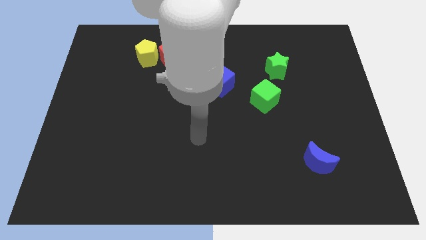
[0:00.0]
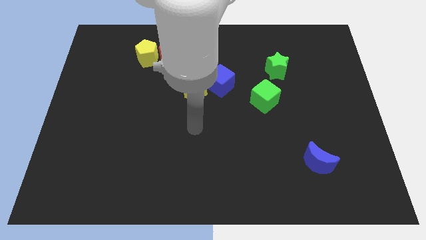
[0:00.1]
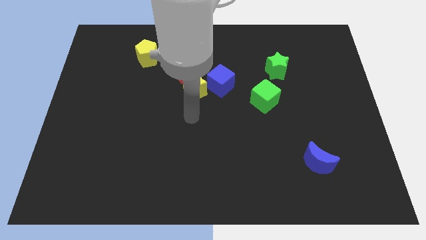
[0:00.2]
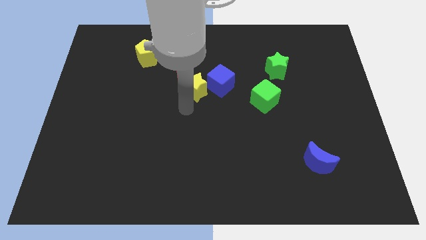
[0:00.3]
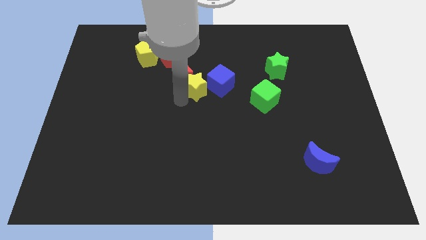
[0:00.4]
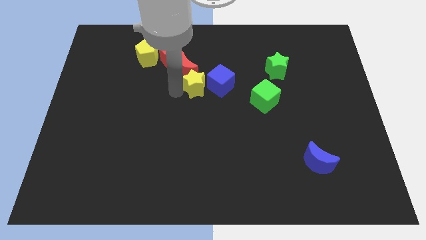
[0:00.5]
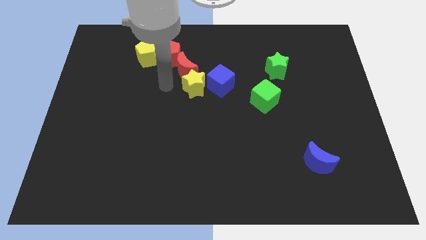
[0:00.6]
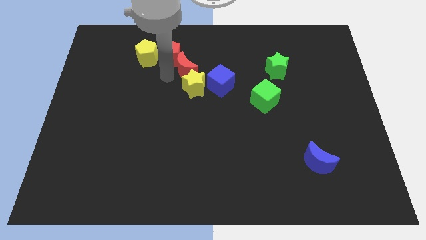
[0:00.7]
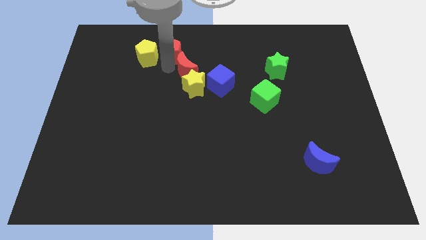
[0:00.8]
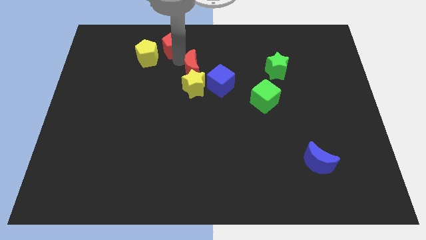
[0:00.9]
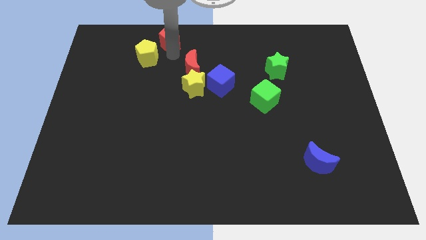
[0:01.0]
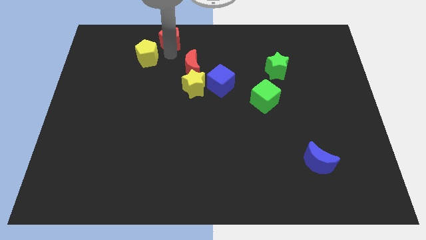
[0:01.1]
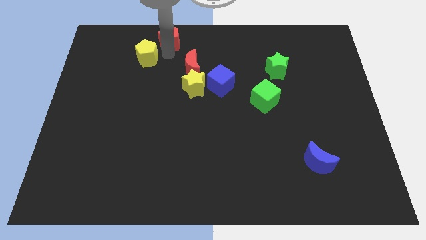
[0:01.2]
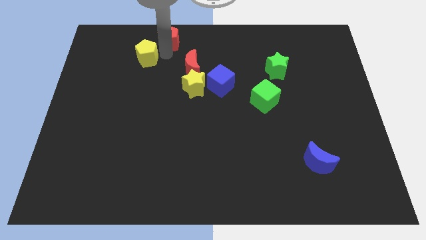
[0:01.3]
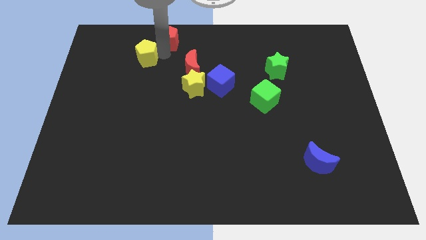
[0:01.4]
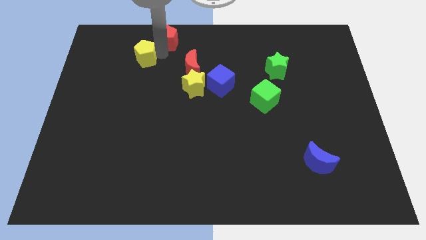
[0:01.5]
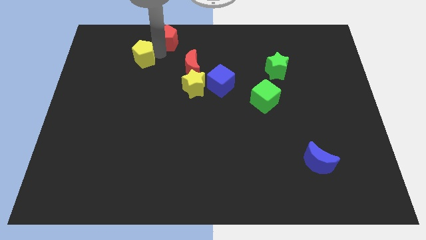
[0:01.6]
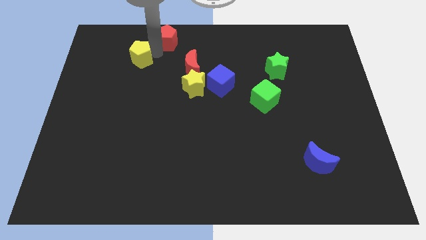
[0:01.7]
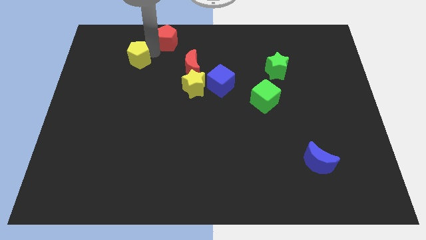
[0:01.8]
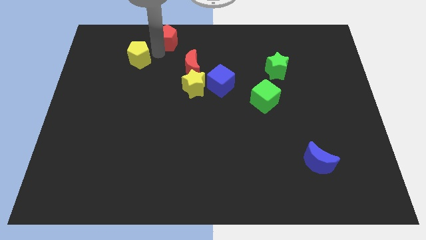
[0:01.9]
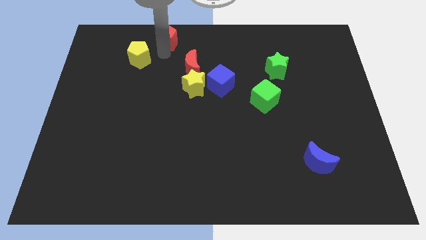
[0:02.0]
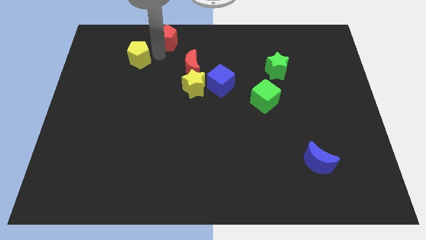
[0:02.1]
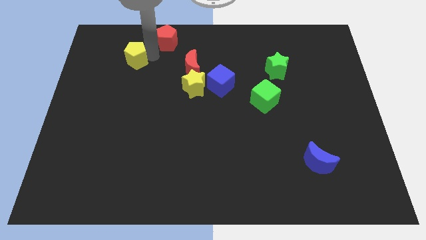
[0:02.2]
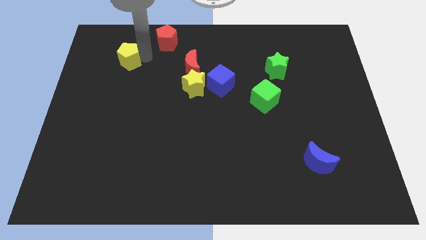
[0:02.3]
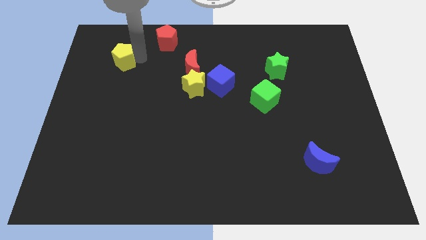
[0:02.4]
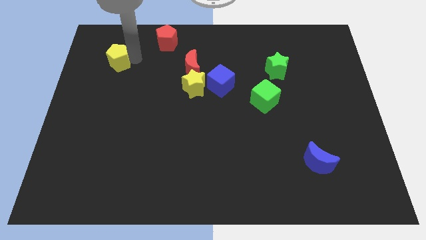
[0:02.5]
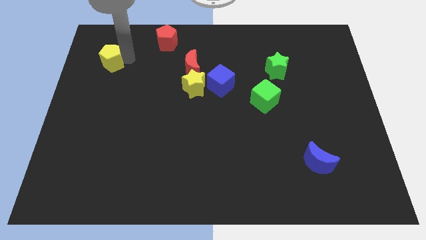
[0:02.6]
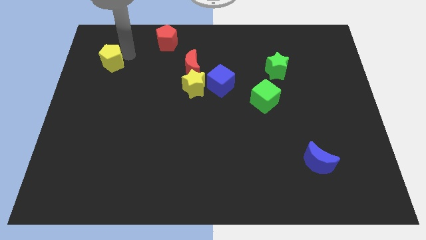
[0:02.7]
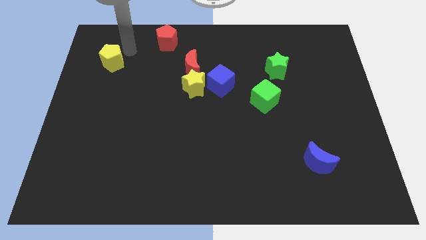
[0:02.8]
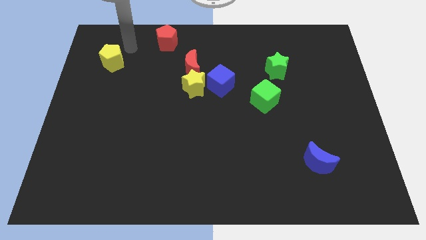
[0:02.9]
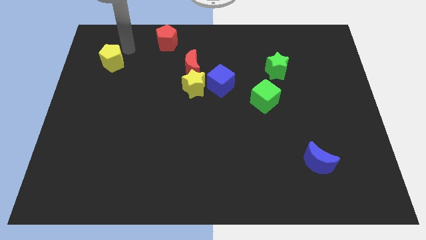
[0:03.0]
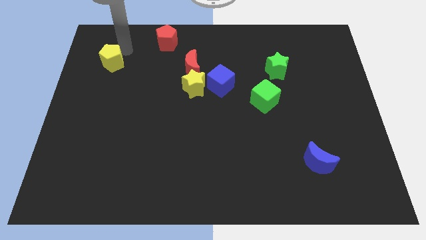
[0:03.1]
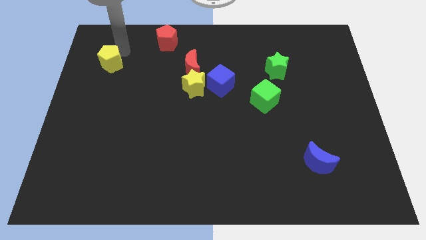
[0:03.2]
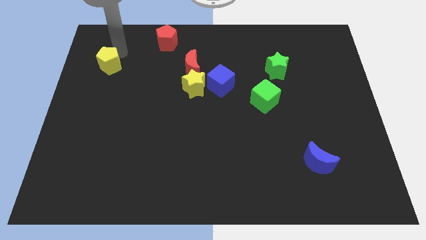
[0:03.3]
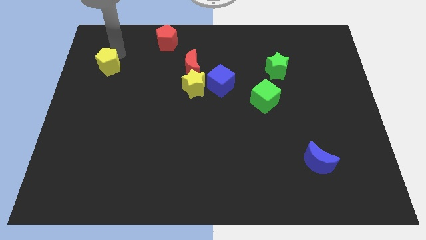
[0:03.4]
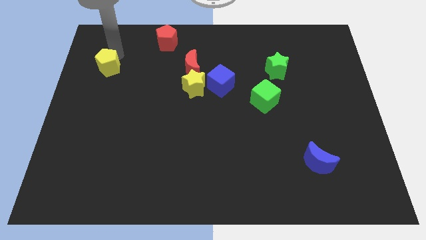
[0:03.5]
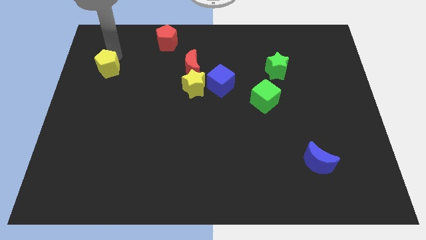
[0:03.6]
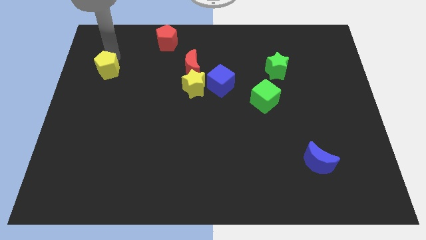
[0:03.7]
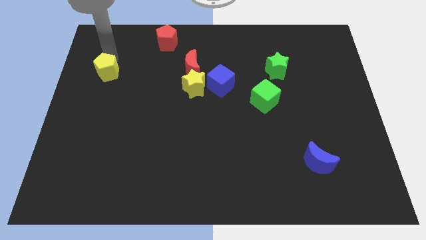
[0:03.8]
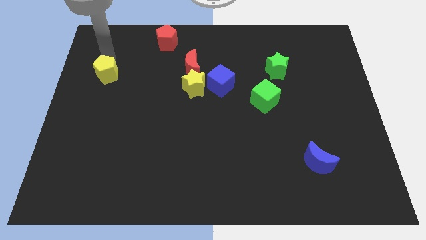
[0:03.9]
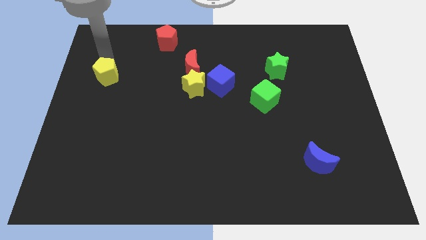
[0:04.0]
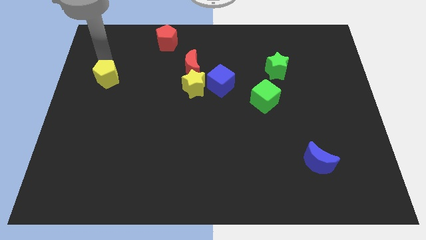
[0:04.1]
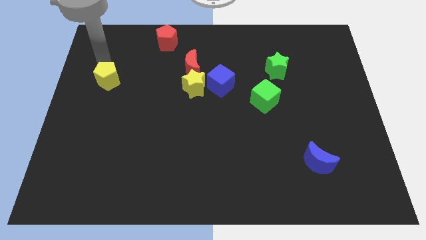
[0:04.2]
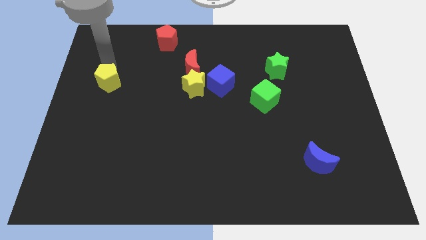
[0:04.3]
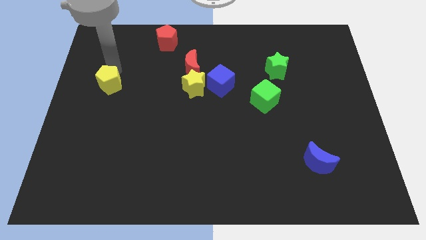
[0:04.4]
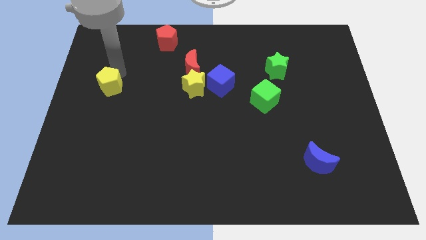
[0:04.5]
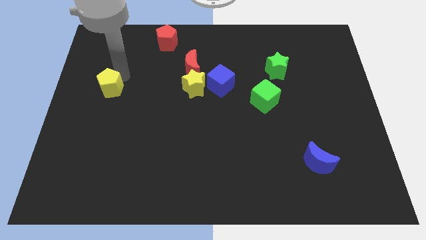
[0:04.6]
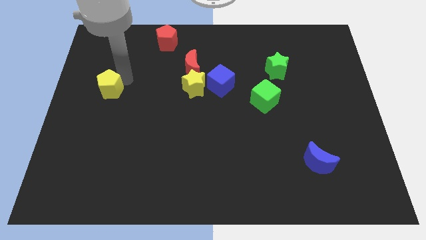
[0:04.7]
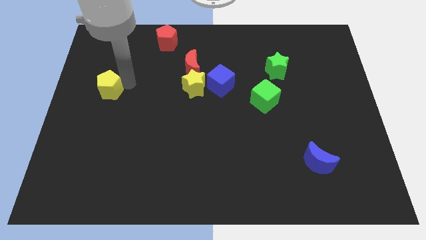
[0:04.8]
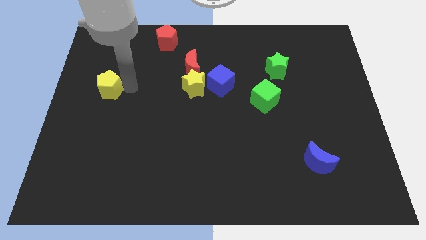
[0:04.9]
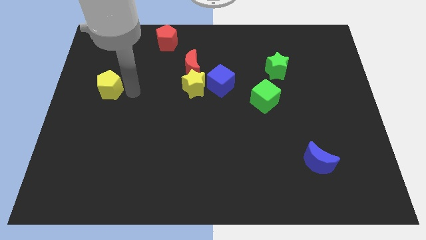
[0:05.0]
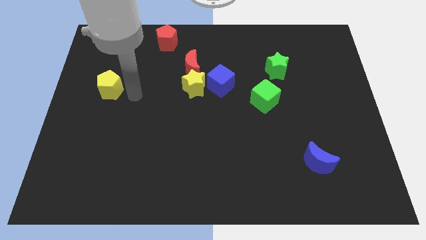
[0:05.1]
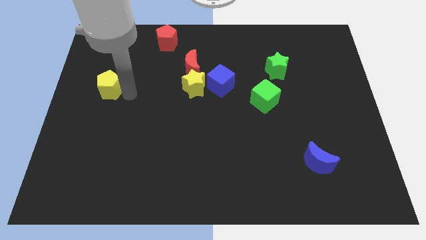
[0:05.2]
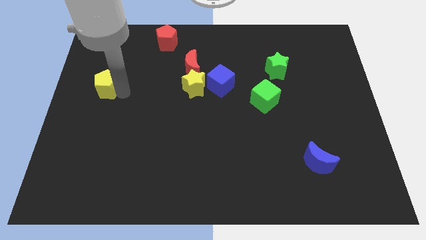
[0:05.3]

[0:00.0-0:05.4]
slide the yellow pentagon to the center left

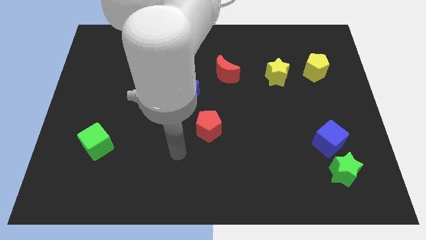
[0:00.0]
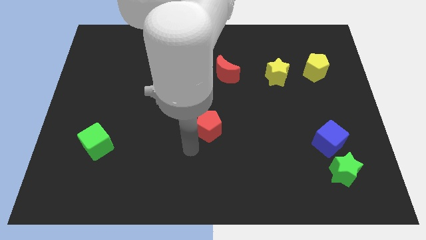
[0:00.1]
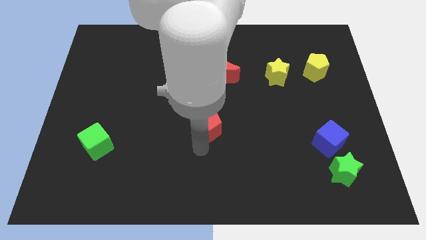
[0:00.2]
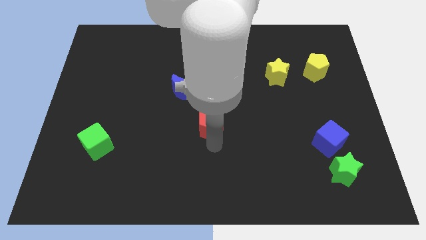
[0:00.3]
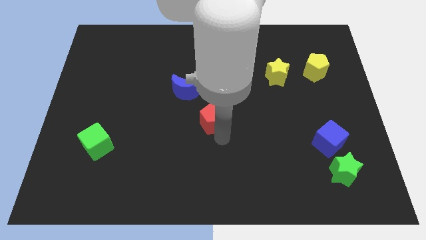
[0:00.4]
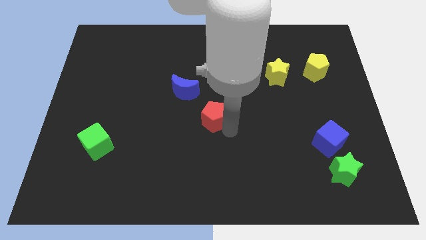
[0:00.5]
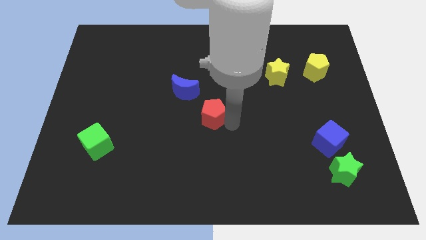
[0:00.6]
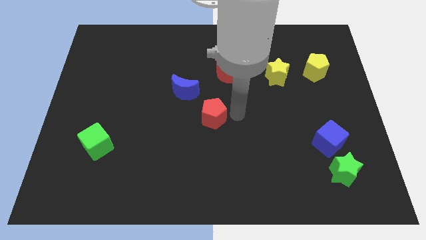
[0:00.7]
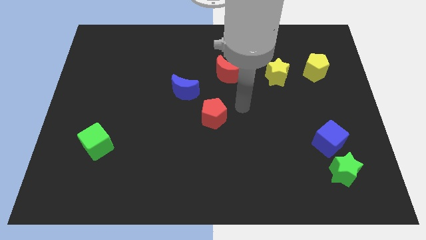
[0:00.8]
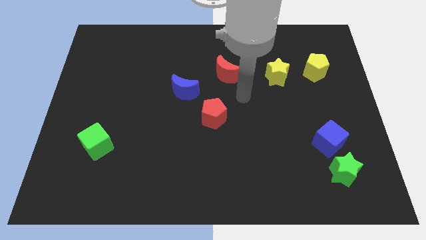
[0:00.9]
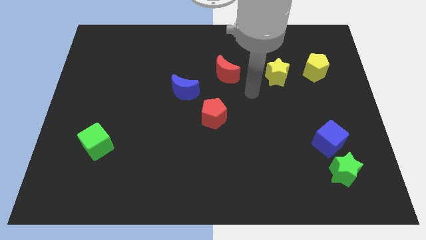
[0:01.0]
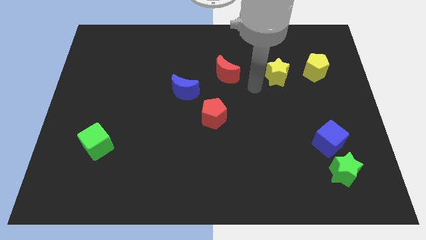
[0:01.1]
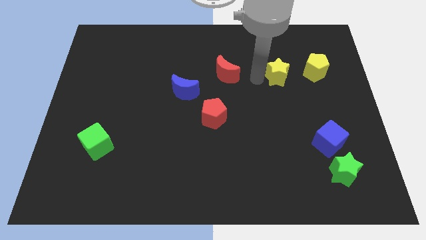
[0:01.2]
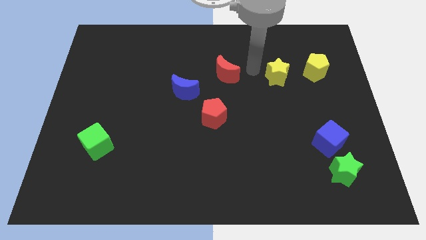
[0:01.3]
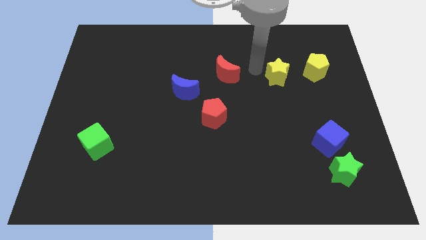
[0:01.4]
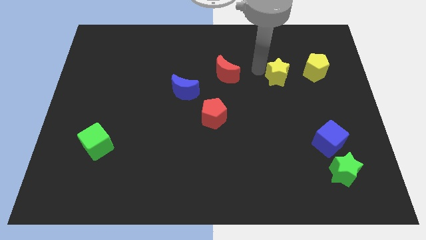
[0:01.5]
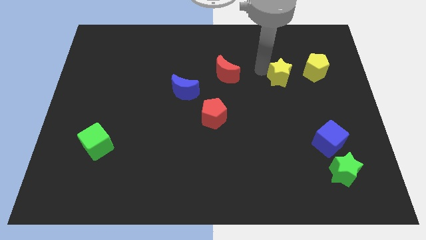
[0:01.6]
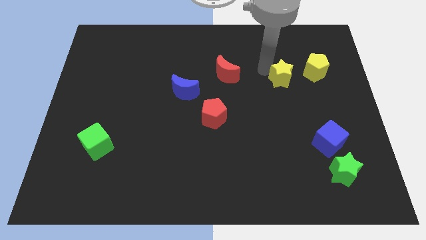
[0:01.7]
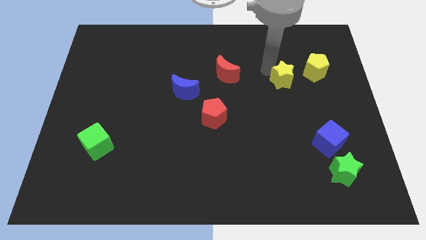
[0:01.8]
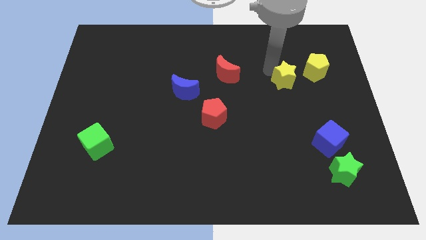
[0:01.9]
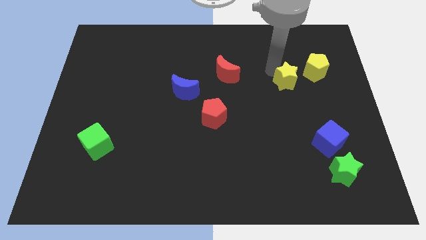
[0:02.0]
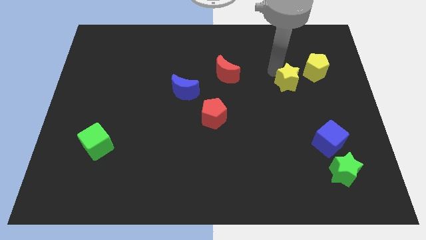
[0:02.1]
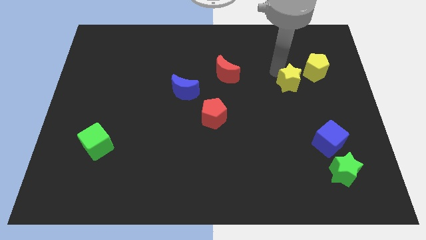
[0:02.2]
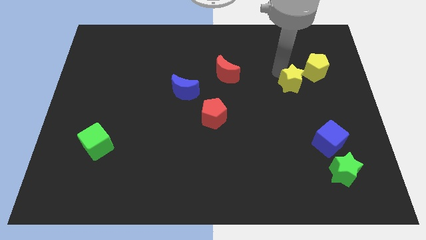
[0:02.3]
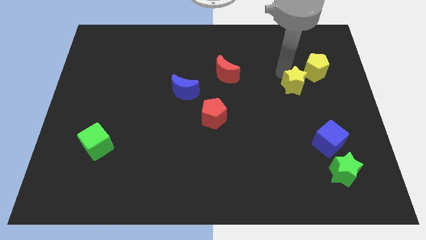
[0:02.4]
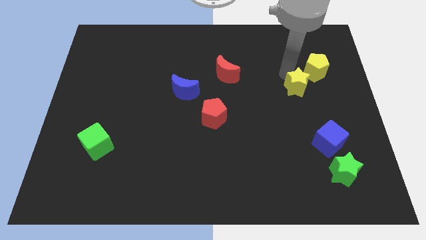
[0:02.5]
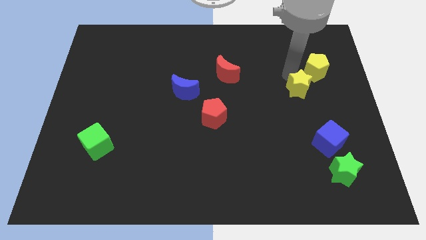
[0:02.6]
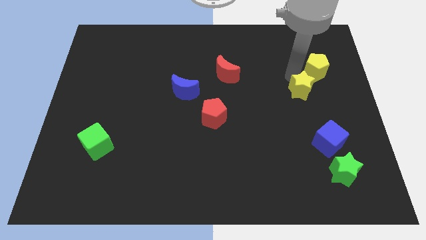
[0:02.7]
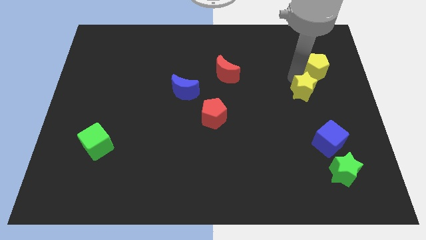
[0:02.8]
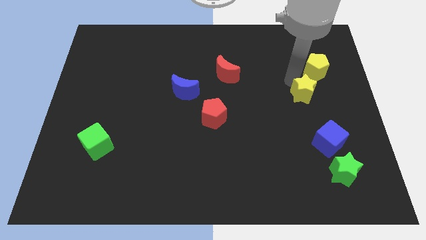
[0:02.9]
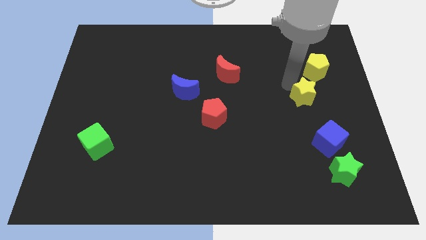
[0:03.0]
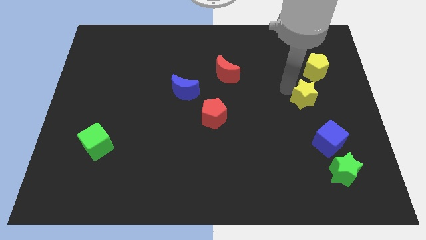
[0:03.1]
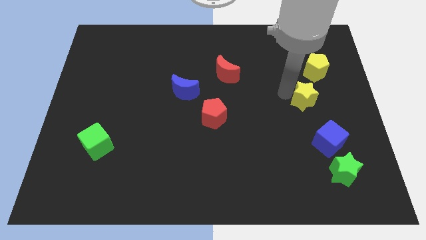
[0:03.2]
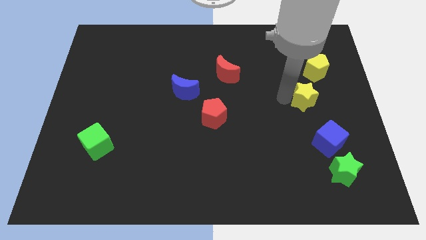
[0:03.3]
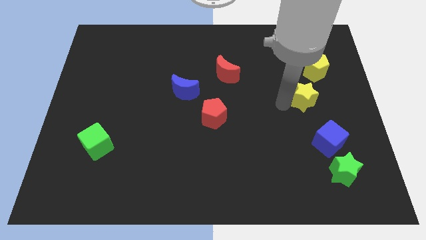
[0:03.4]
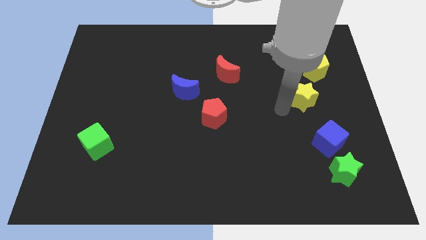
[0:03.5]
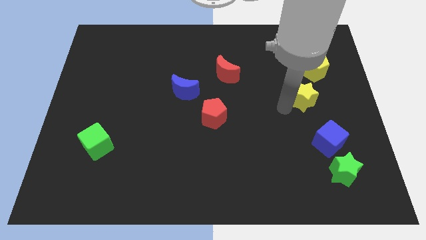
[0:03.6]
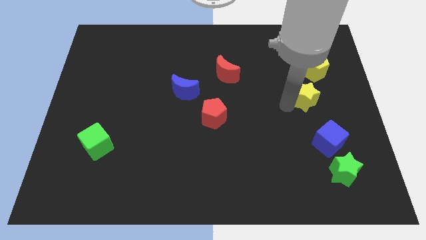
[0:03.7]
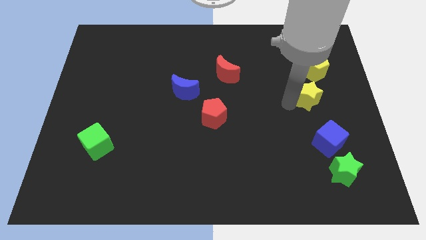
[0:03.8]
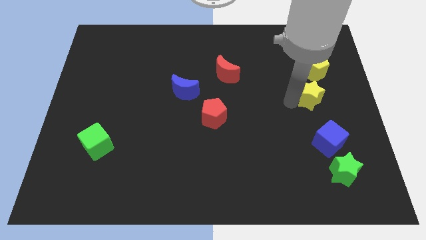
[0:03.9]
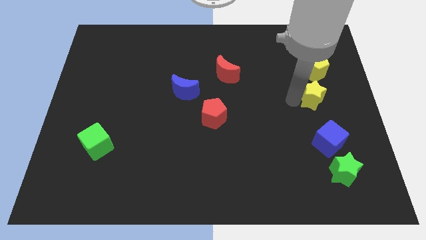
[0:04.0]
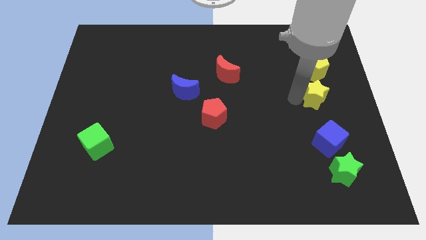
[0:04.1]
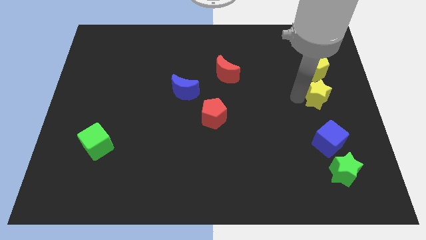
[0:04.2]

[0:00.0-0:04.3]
slide the yellow star to the center right
